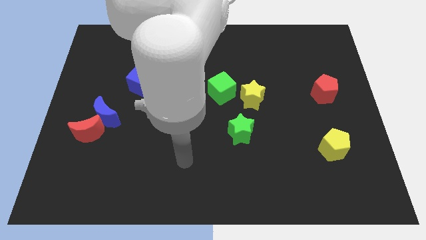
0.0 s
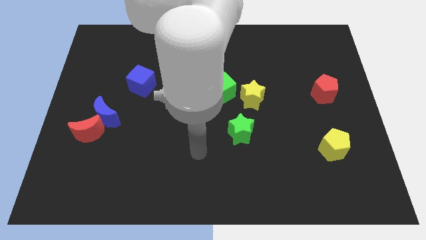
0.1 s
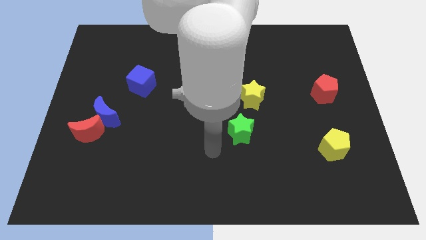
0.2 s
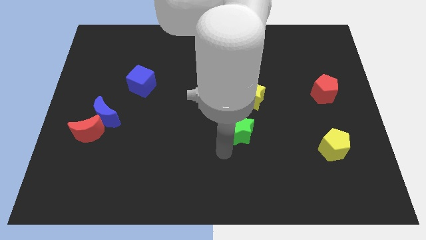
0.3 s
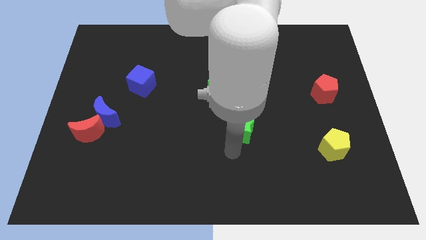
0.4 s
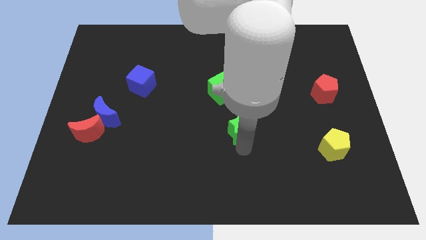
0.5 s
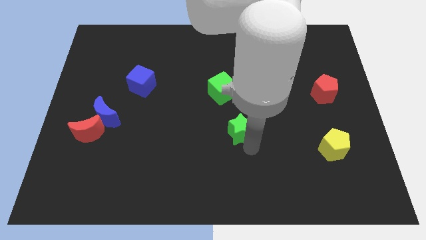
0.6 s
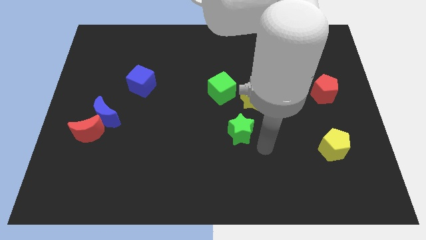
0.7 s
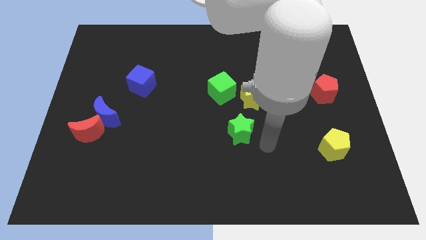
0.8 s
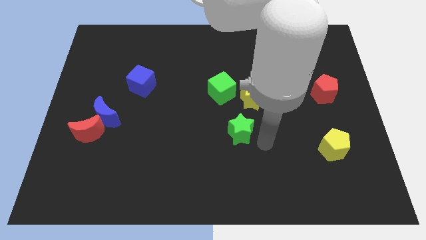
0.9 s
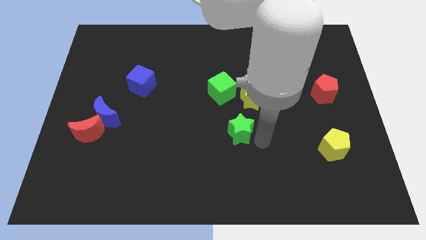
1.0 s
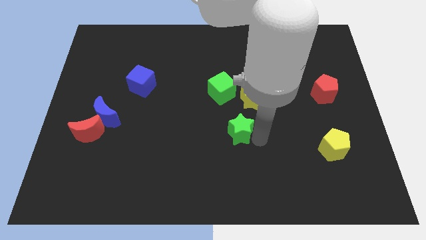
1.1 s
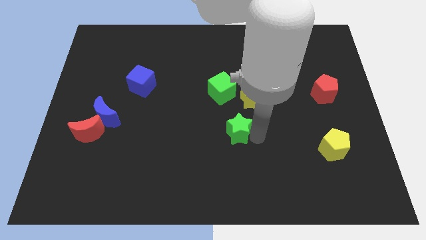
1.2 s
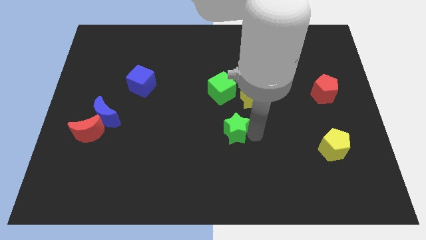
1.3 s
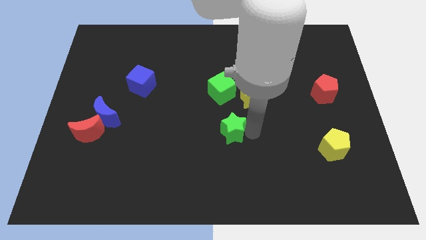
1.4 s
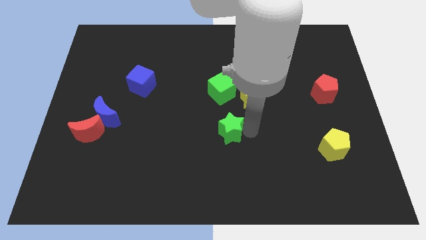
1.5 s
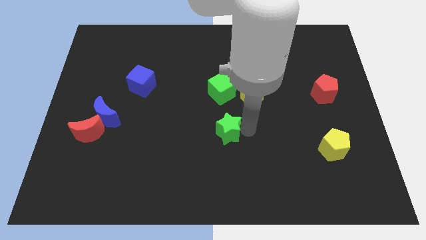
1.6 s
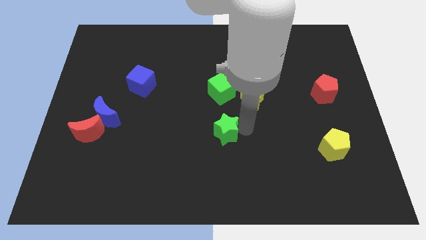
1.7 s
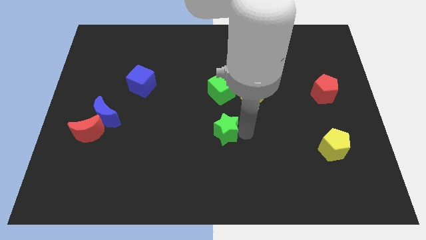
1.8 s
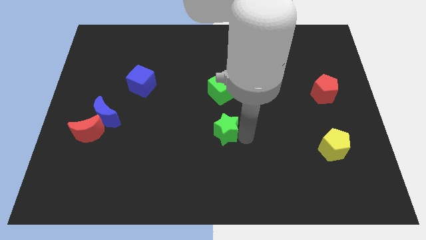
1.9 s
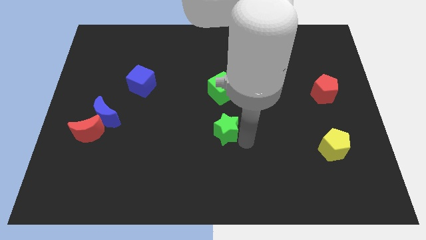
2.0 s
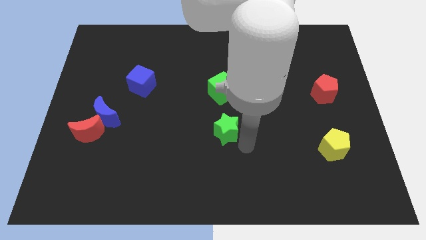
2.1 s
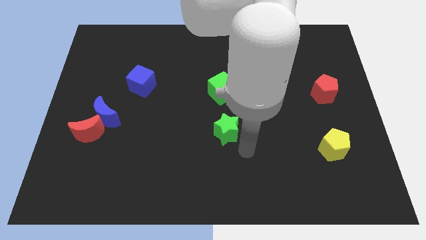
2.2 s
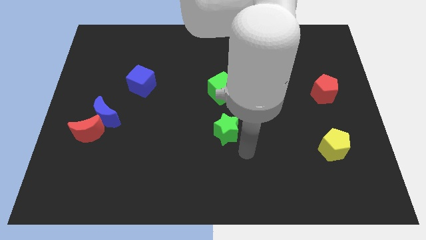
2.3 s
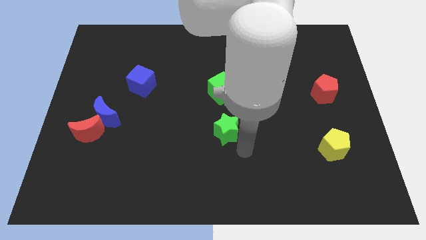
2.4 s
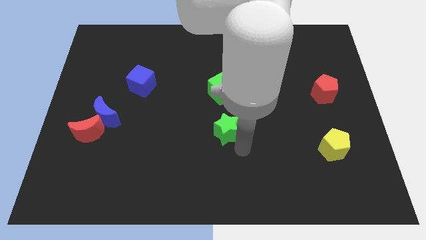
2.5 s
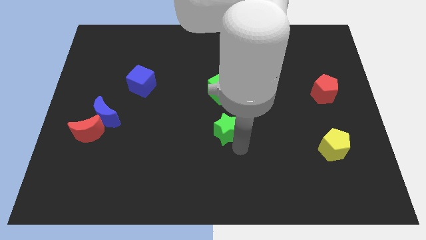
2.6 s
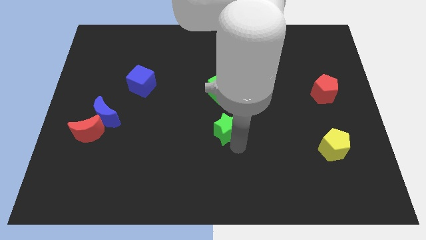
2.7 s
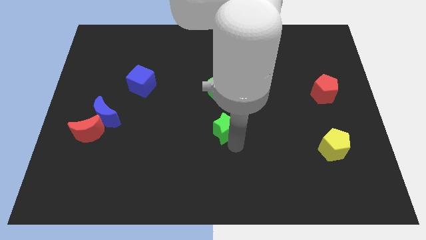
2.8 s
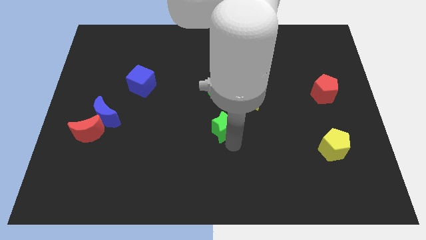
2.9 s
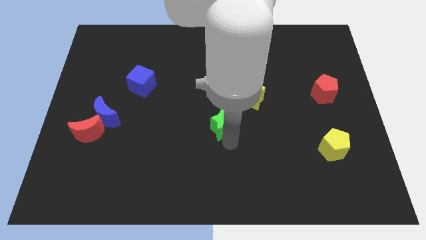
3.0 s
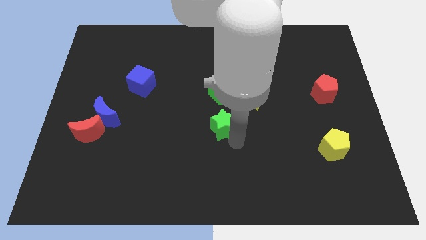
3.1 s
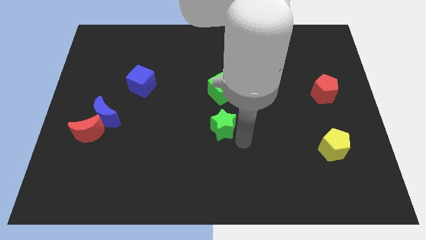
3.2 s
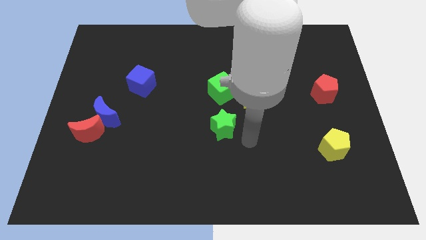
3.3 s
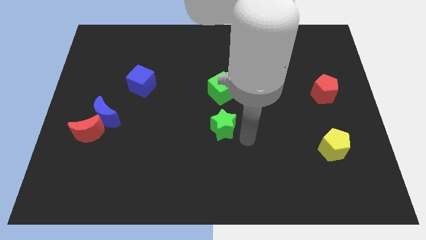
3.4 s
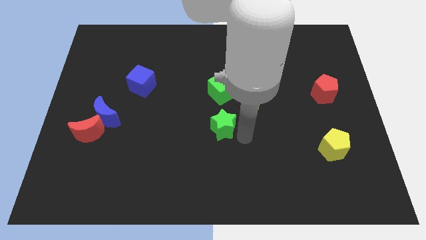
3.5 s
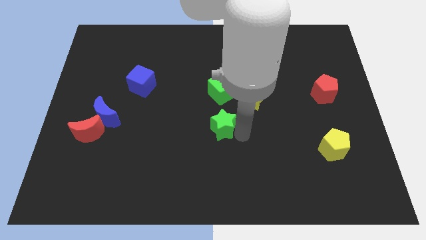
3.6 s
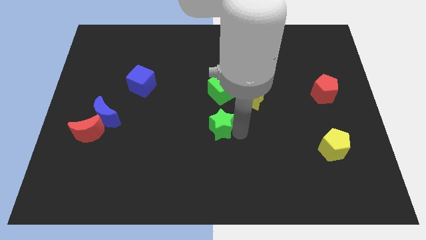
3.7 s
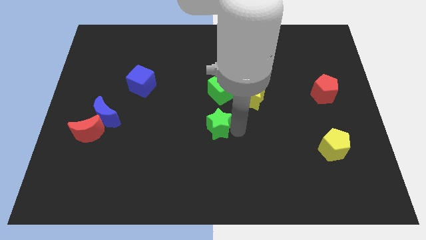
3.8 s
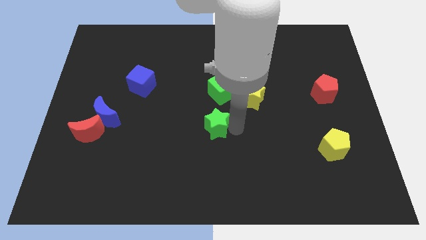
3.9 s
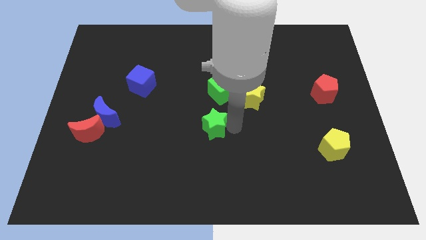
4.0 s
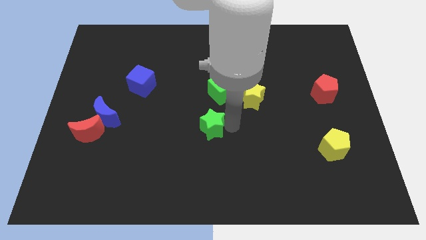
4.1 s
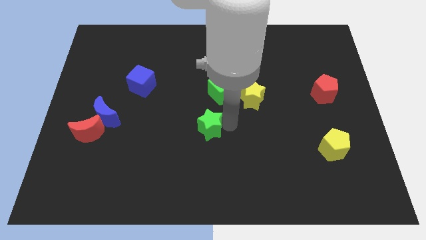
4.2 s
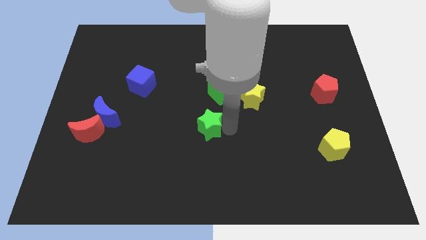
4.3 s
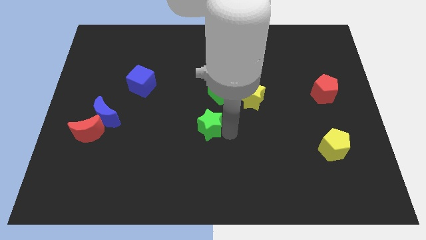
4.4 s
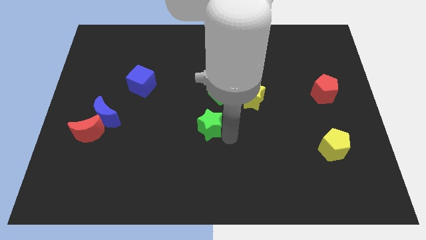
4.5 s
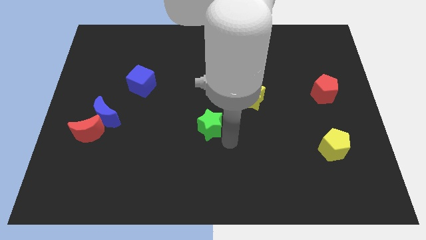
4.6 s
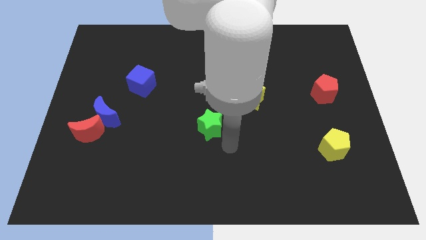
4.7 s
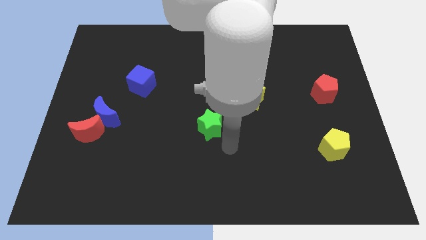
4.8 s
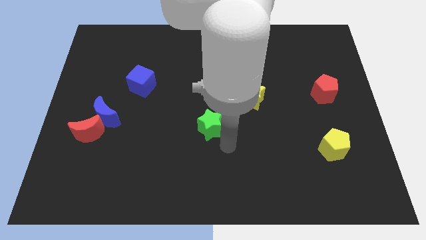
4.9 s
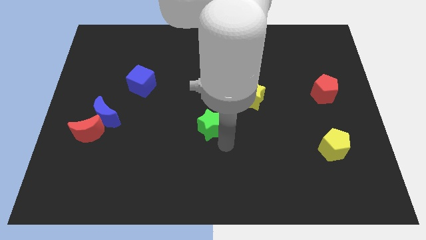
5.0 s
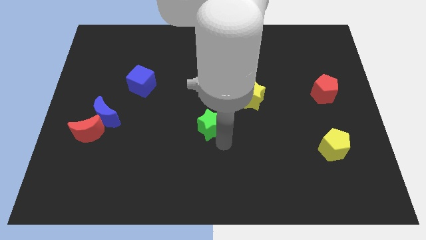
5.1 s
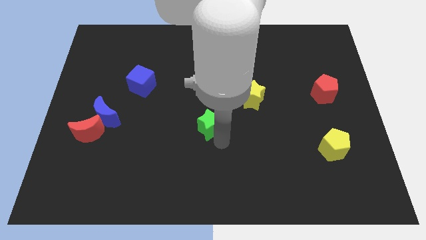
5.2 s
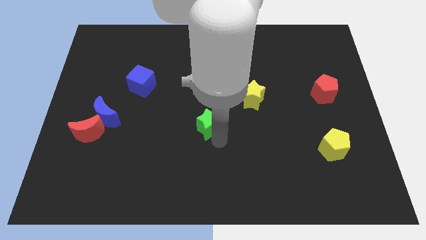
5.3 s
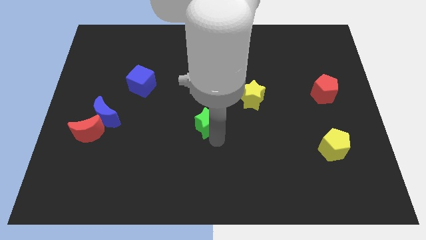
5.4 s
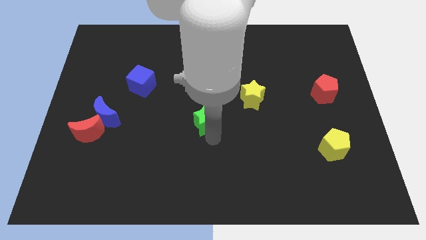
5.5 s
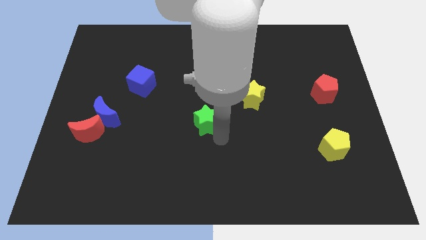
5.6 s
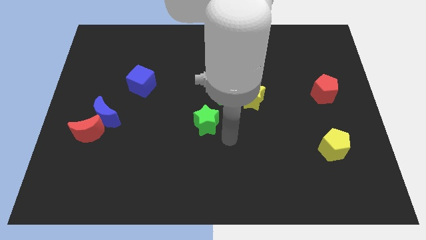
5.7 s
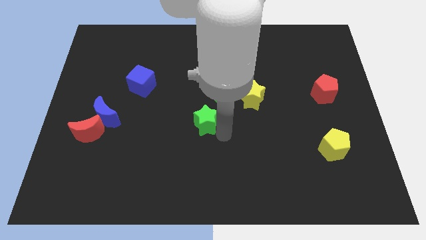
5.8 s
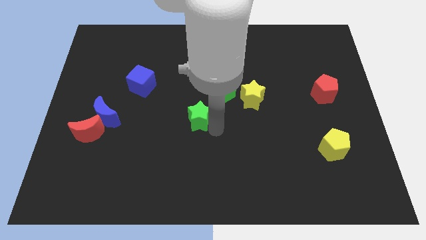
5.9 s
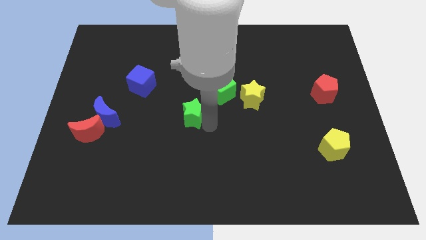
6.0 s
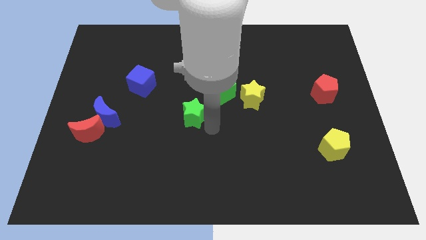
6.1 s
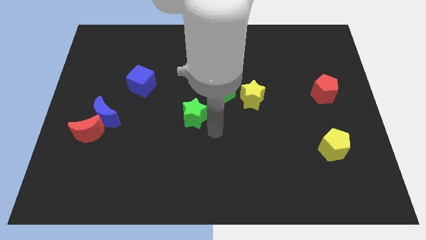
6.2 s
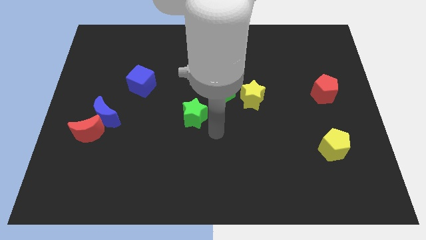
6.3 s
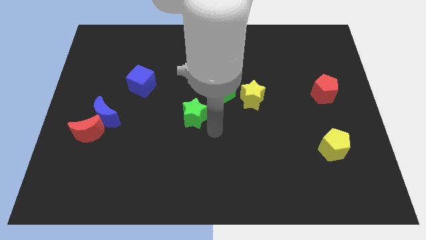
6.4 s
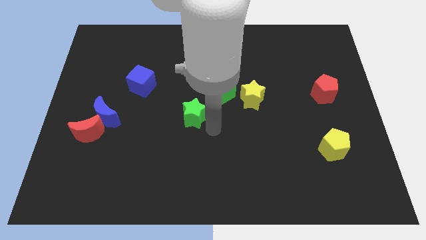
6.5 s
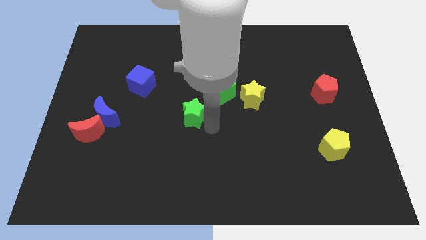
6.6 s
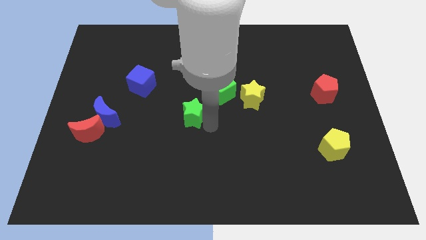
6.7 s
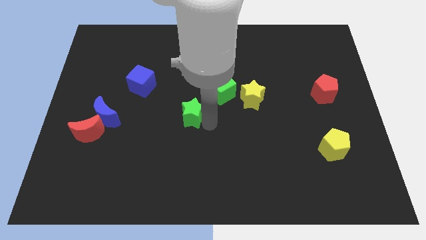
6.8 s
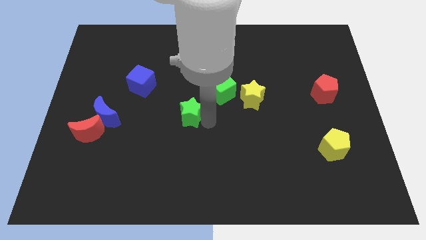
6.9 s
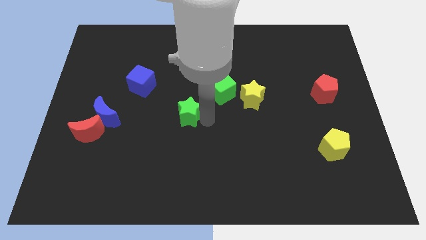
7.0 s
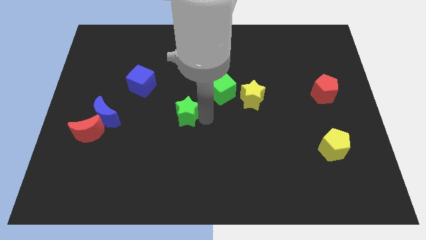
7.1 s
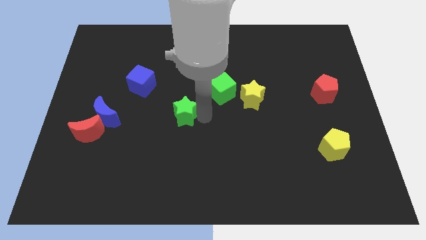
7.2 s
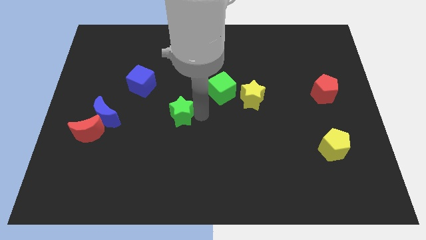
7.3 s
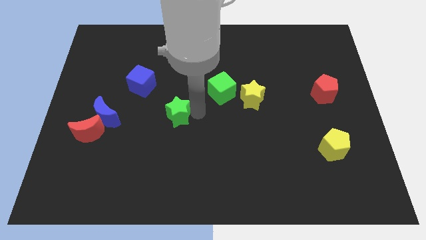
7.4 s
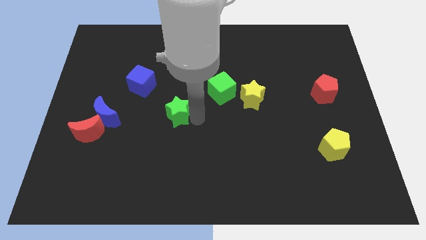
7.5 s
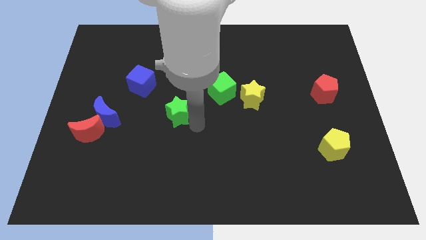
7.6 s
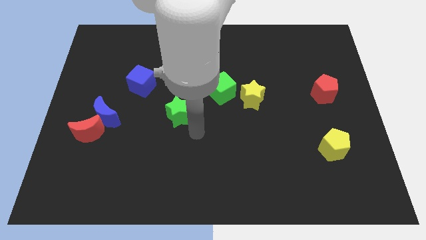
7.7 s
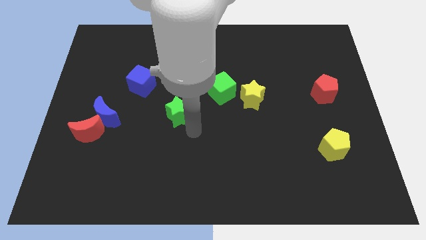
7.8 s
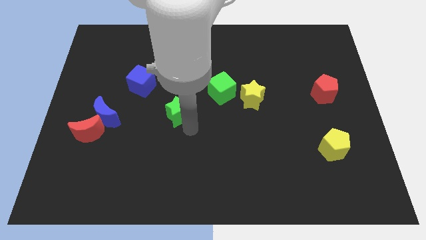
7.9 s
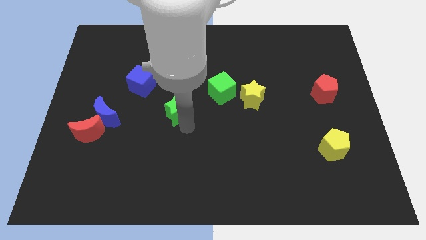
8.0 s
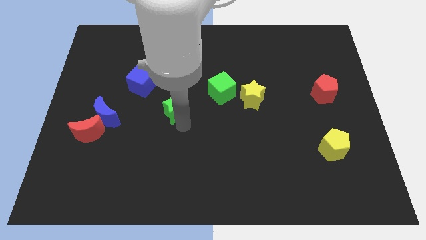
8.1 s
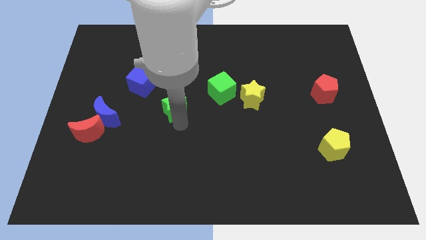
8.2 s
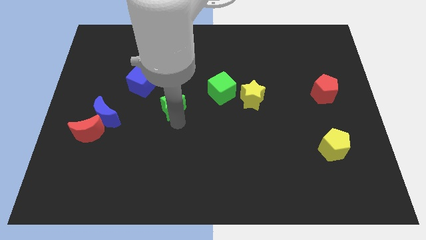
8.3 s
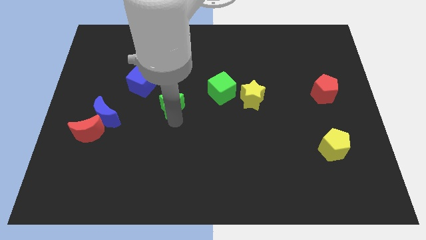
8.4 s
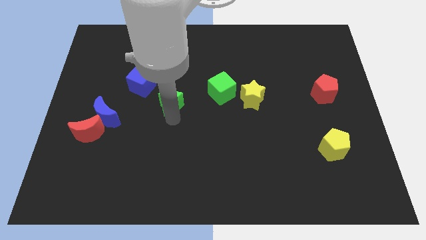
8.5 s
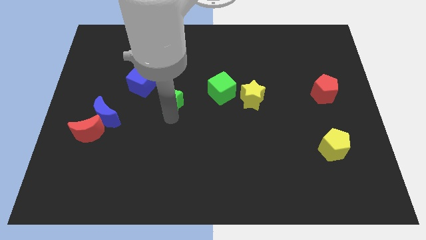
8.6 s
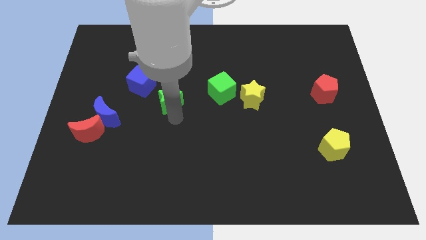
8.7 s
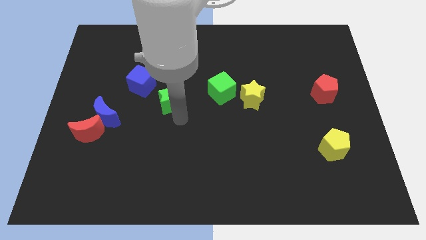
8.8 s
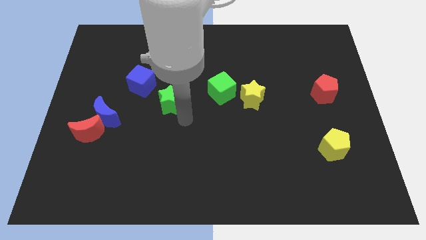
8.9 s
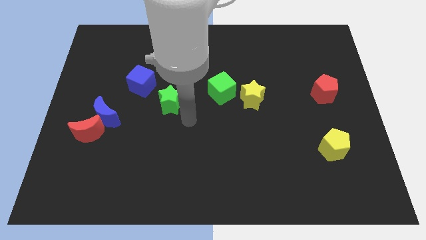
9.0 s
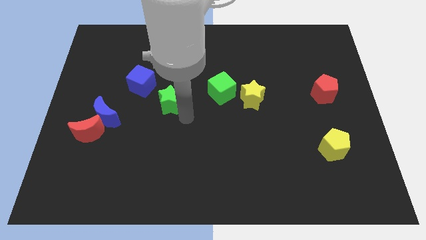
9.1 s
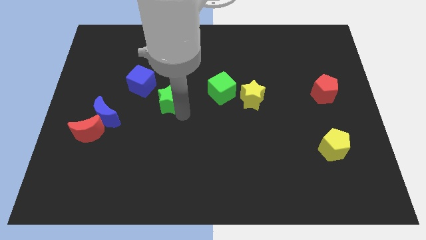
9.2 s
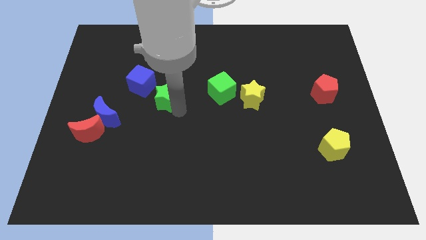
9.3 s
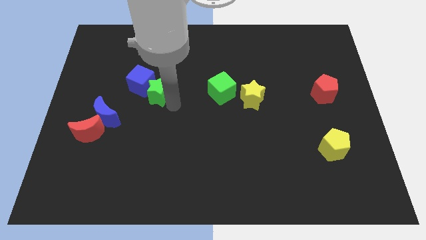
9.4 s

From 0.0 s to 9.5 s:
slide the green star close to the blue cube
